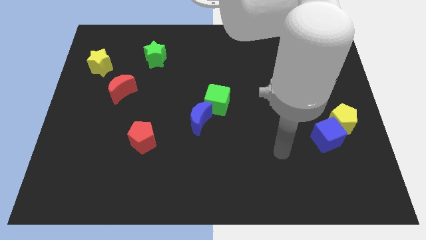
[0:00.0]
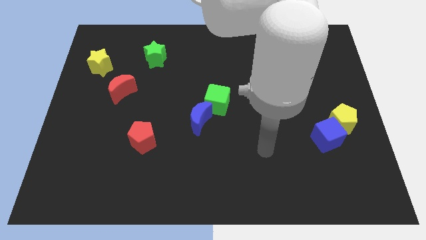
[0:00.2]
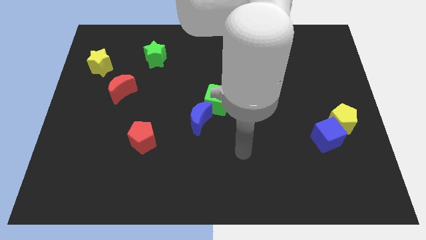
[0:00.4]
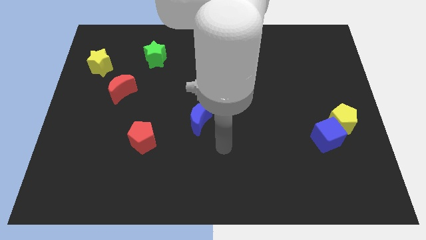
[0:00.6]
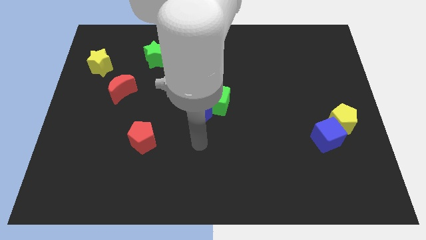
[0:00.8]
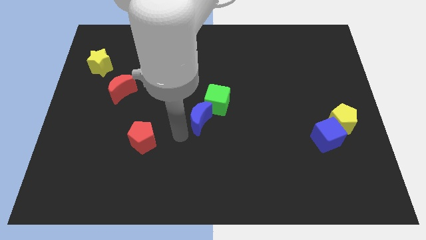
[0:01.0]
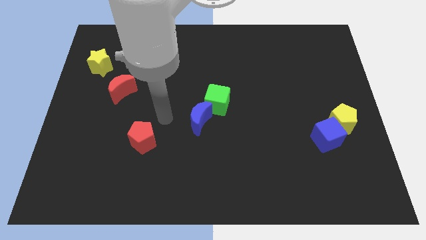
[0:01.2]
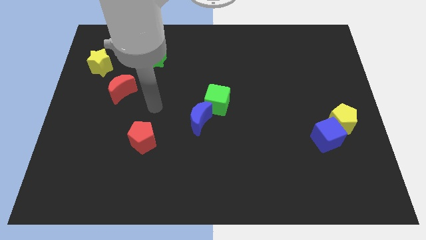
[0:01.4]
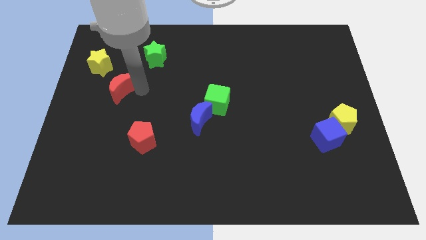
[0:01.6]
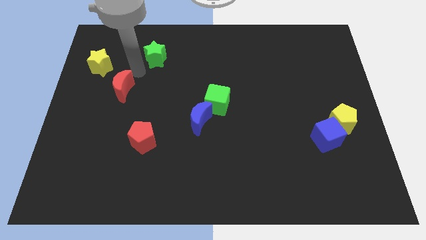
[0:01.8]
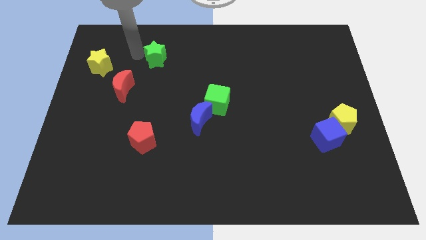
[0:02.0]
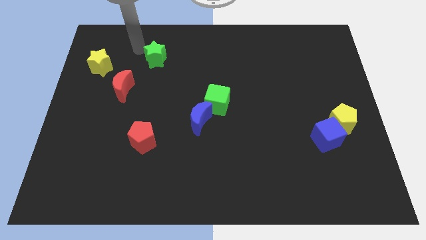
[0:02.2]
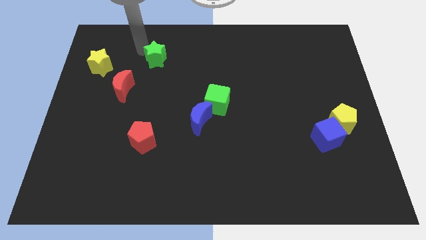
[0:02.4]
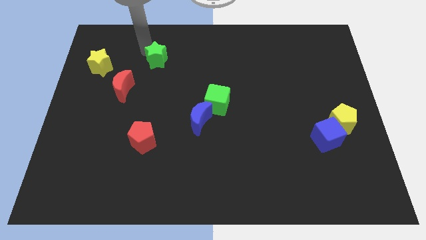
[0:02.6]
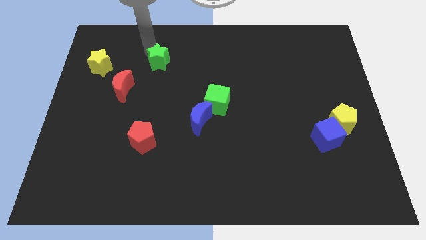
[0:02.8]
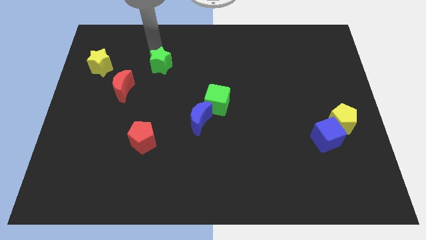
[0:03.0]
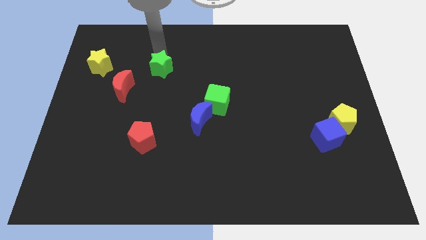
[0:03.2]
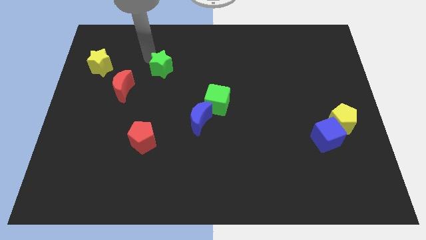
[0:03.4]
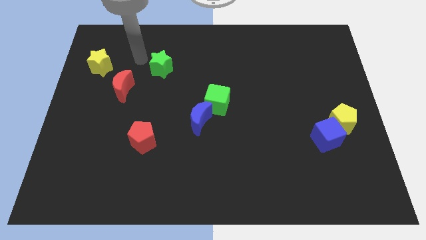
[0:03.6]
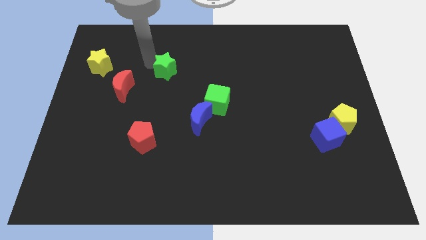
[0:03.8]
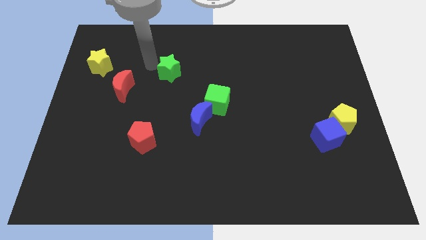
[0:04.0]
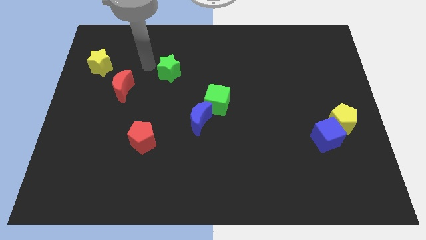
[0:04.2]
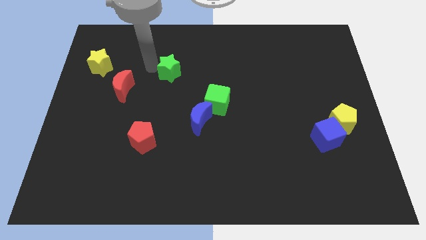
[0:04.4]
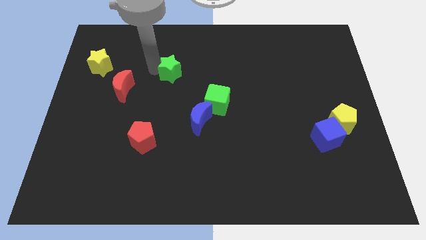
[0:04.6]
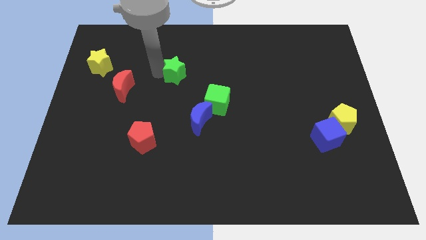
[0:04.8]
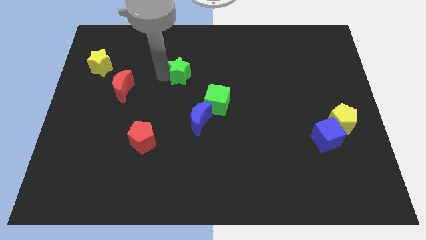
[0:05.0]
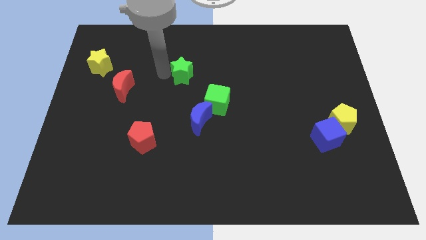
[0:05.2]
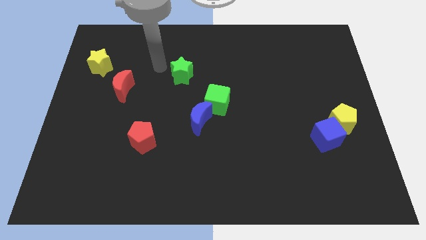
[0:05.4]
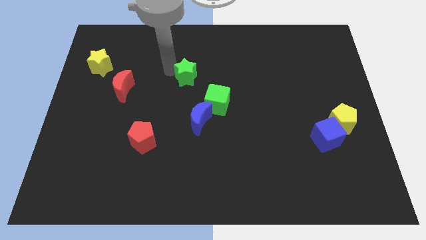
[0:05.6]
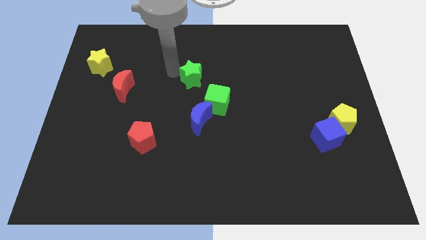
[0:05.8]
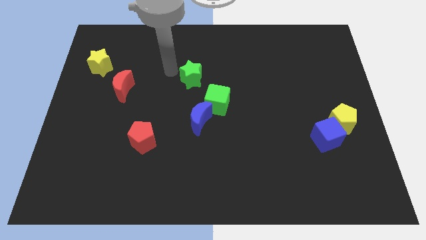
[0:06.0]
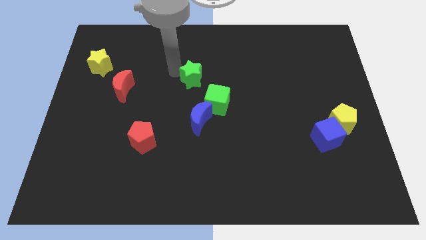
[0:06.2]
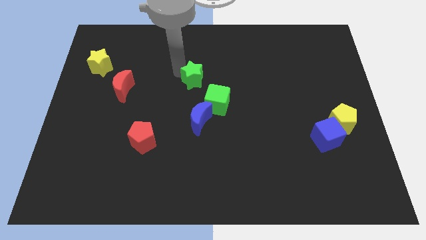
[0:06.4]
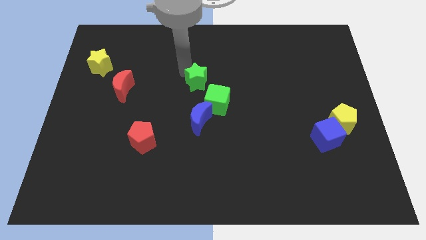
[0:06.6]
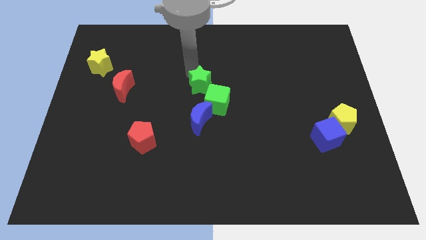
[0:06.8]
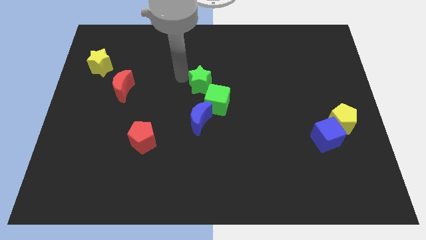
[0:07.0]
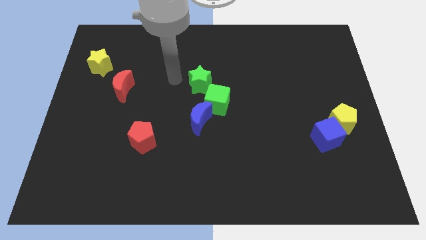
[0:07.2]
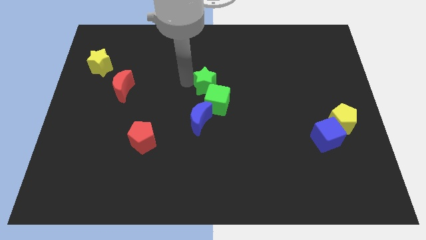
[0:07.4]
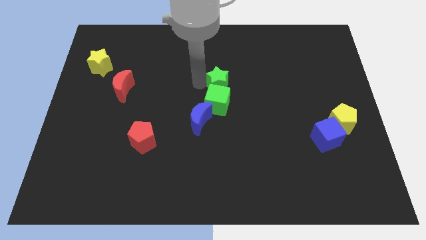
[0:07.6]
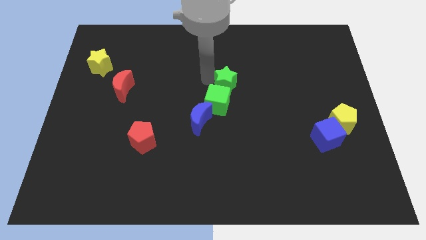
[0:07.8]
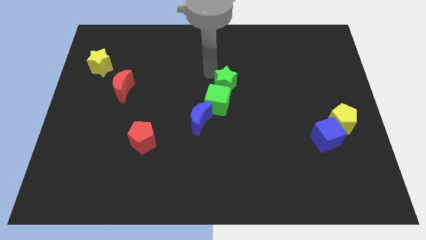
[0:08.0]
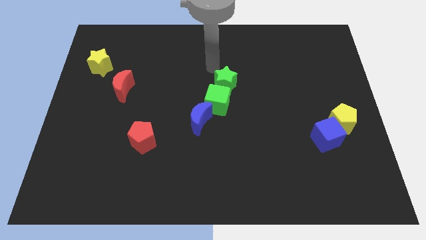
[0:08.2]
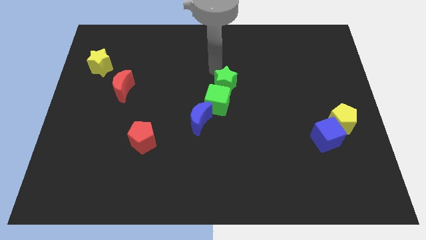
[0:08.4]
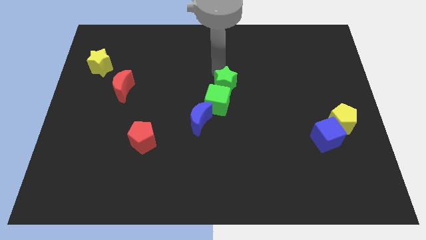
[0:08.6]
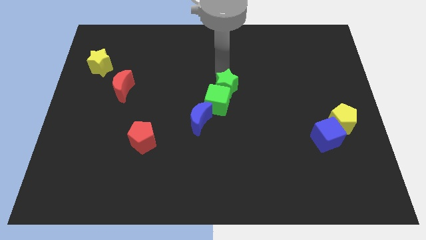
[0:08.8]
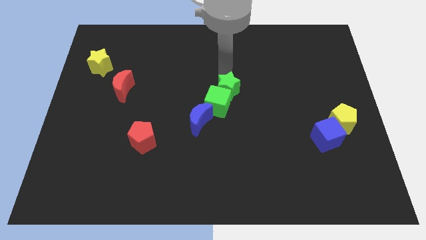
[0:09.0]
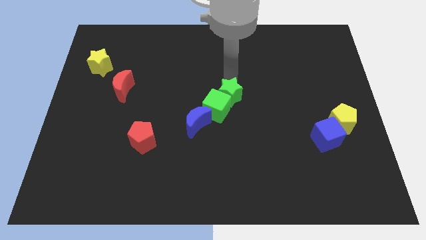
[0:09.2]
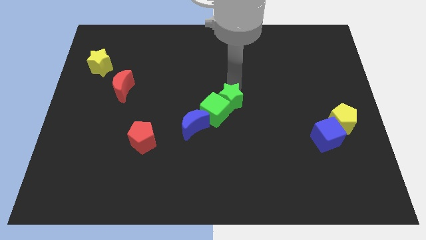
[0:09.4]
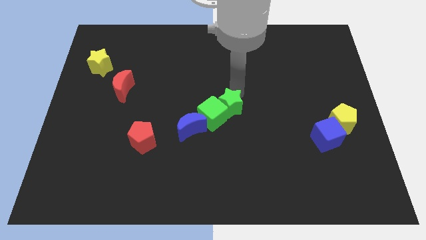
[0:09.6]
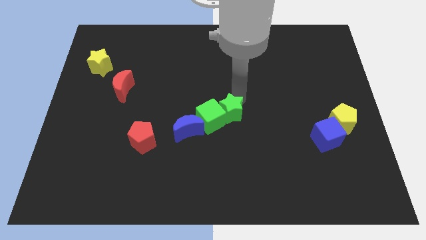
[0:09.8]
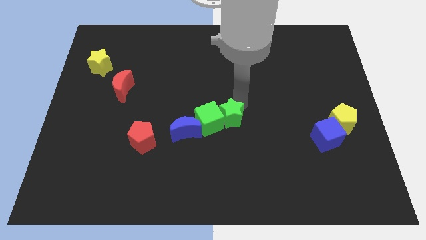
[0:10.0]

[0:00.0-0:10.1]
slide the green star to the bottom right side of the green cube
